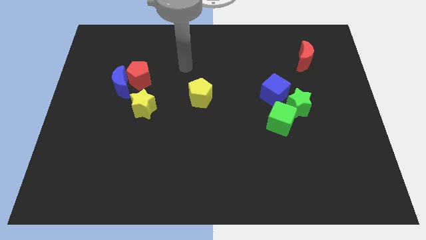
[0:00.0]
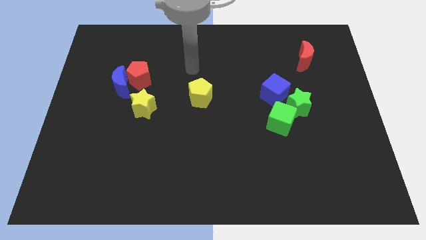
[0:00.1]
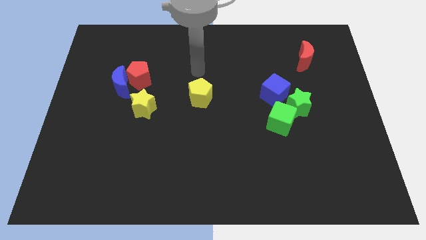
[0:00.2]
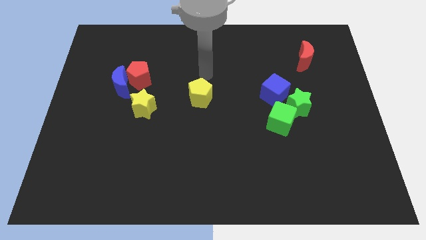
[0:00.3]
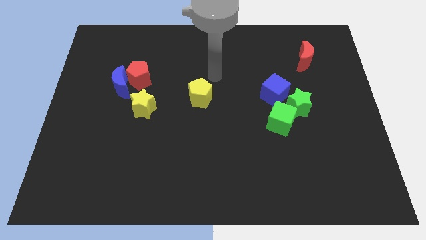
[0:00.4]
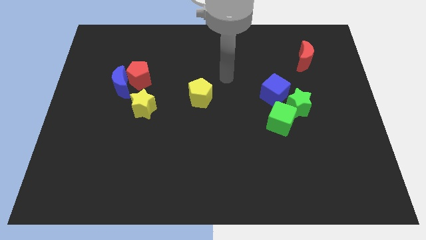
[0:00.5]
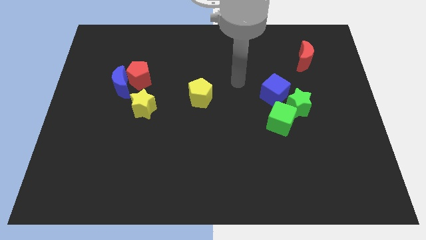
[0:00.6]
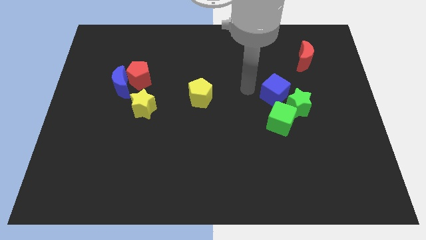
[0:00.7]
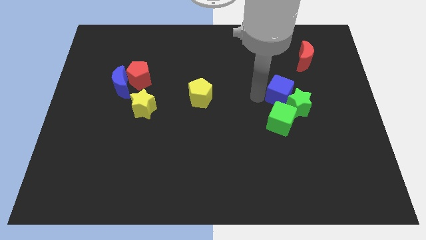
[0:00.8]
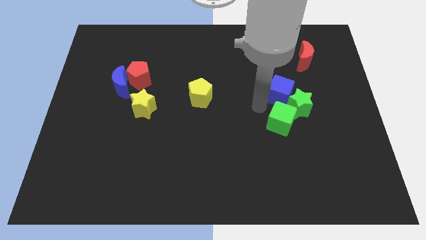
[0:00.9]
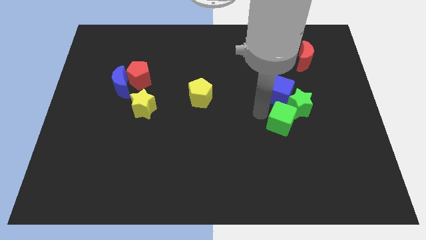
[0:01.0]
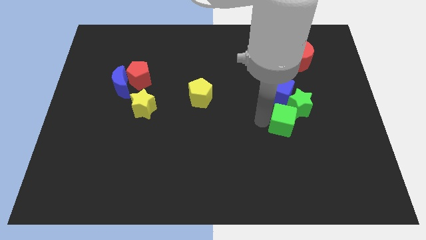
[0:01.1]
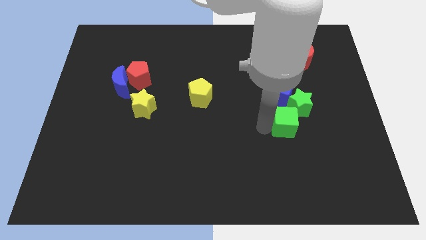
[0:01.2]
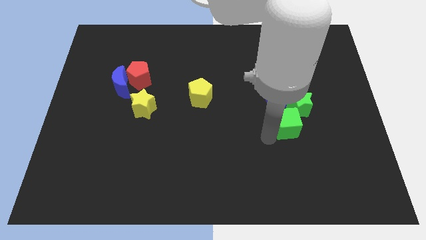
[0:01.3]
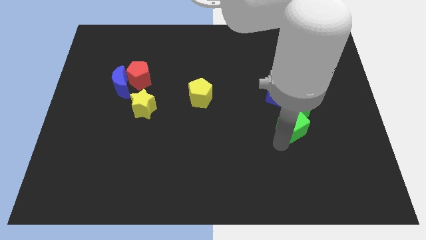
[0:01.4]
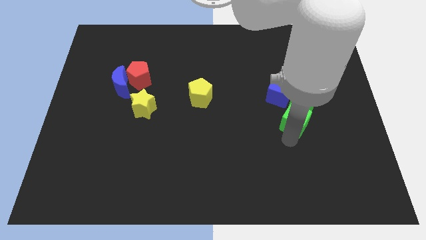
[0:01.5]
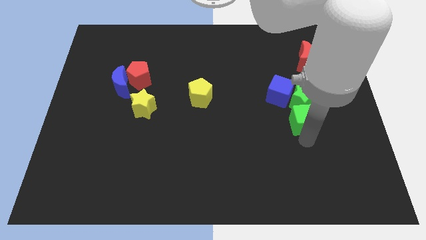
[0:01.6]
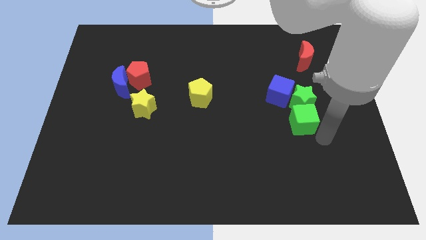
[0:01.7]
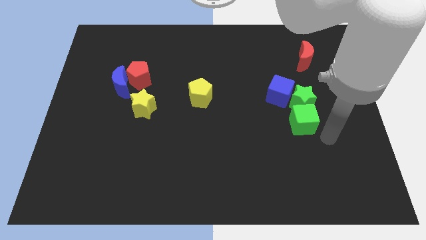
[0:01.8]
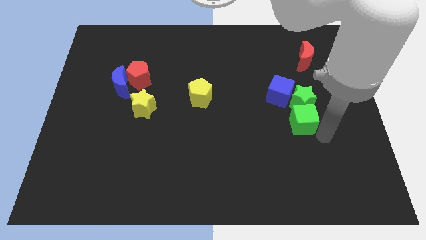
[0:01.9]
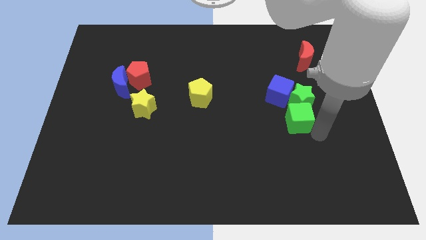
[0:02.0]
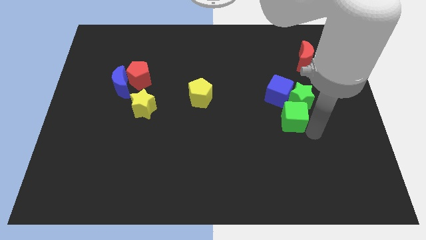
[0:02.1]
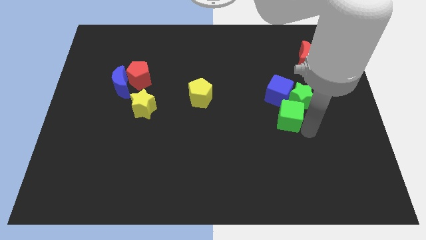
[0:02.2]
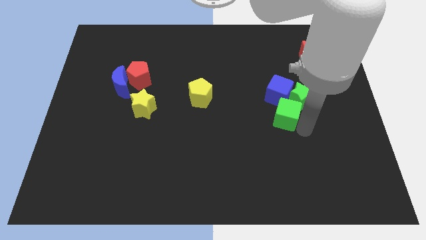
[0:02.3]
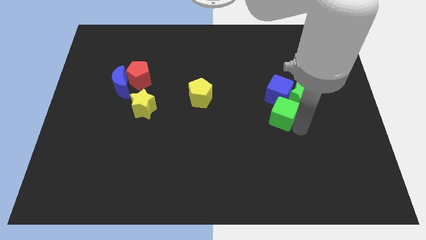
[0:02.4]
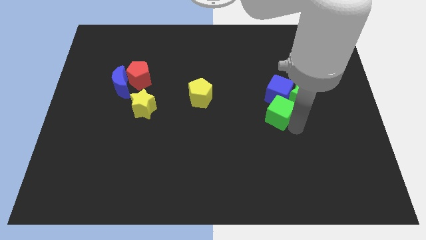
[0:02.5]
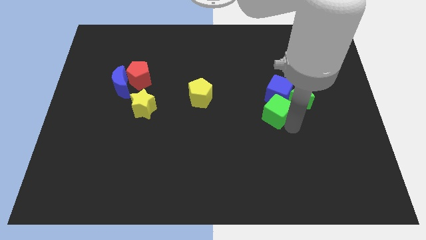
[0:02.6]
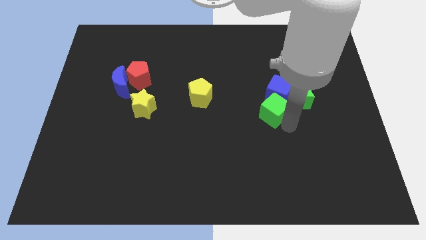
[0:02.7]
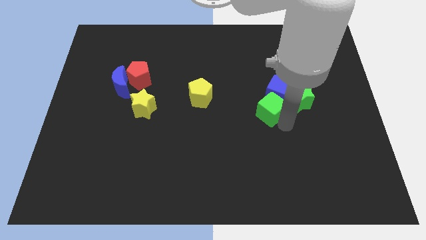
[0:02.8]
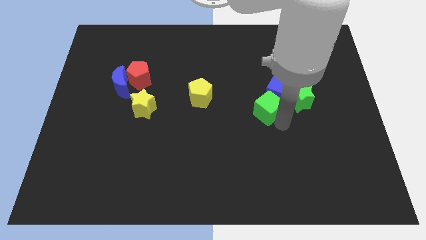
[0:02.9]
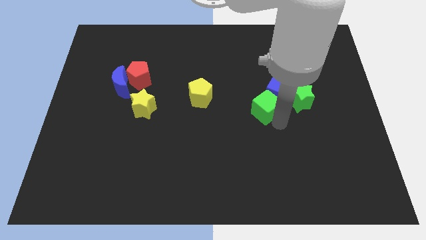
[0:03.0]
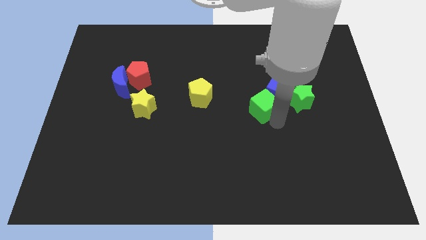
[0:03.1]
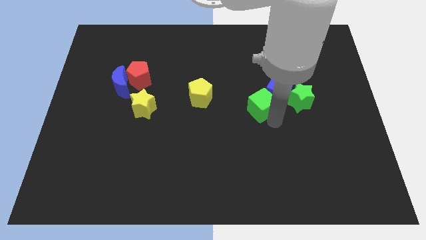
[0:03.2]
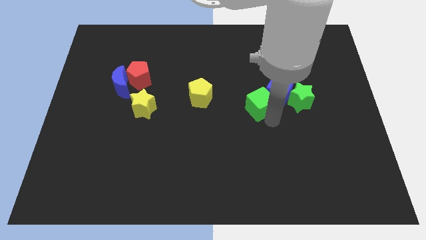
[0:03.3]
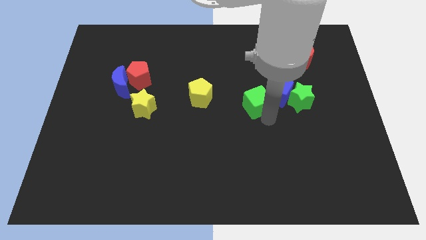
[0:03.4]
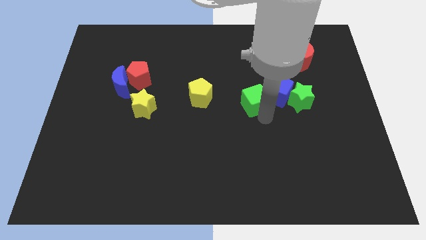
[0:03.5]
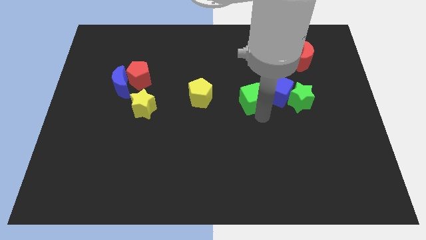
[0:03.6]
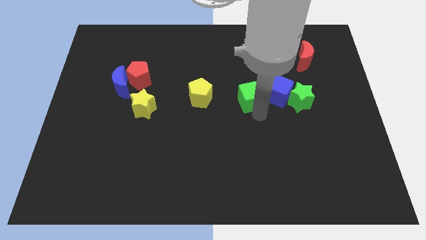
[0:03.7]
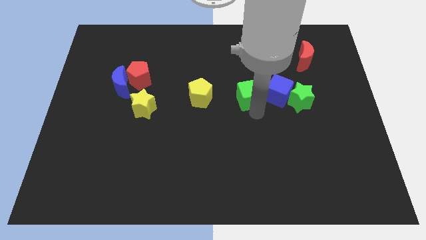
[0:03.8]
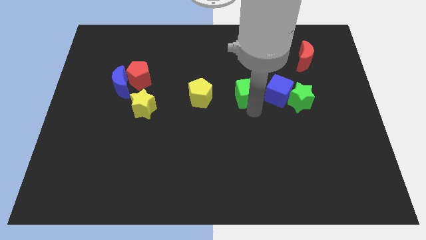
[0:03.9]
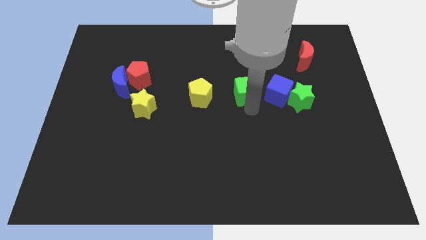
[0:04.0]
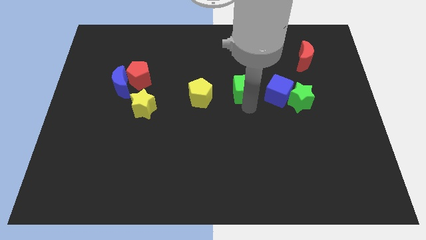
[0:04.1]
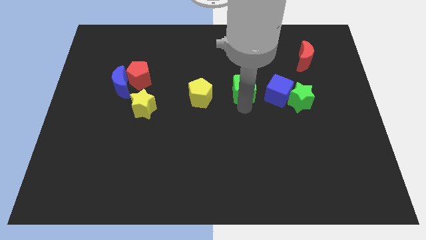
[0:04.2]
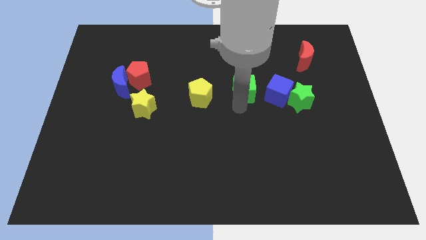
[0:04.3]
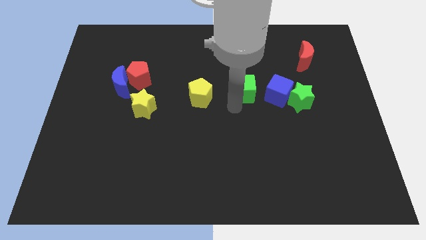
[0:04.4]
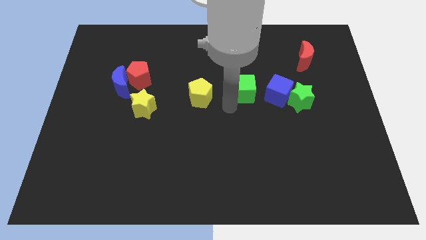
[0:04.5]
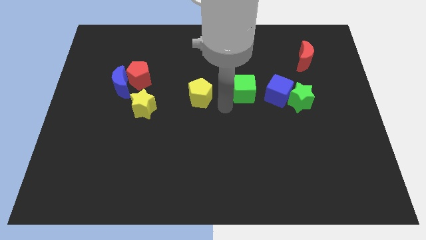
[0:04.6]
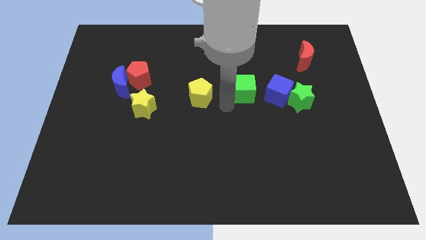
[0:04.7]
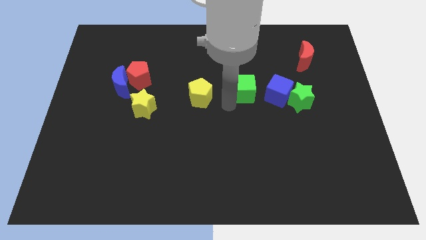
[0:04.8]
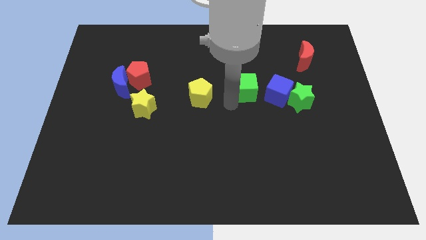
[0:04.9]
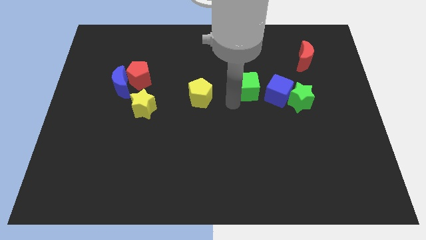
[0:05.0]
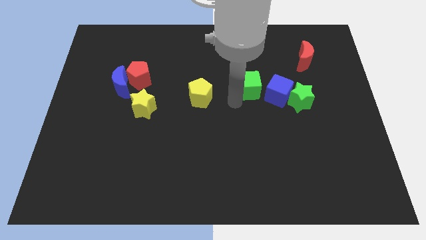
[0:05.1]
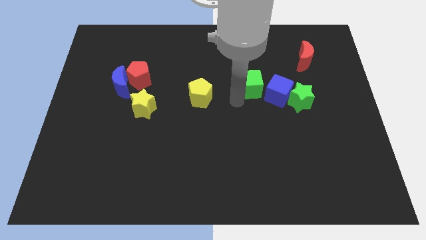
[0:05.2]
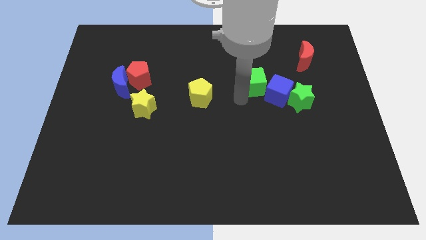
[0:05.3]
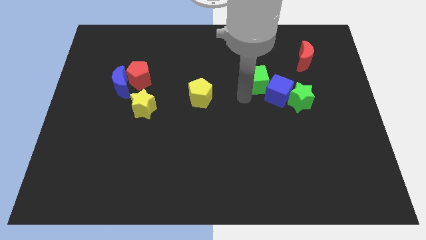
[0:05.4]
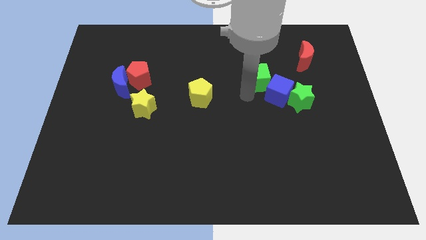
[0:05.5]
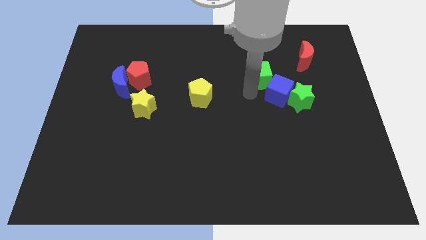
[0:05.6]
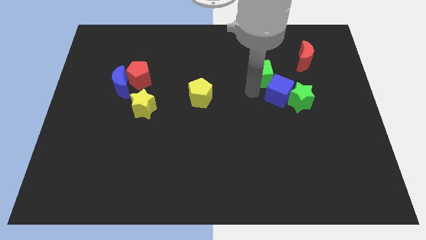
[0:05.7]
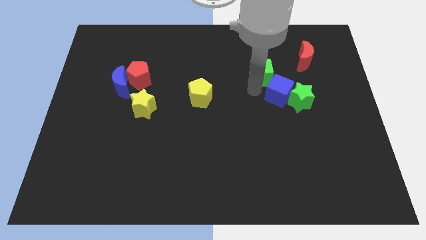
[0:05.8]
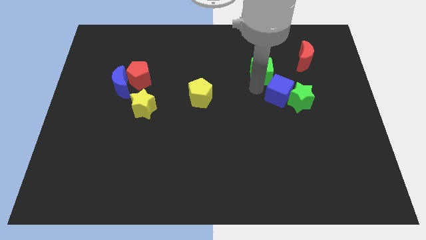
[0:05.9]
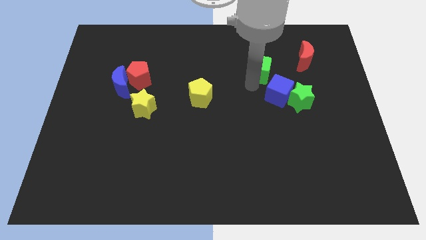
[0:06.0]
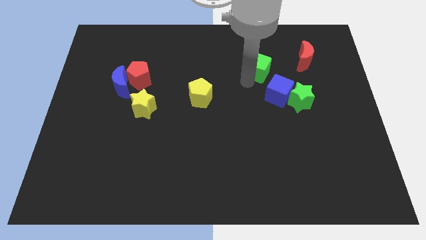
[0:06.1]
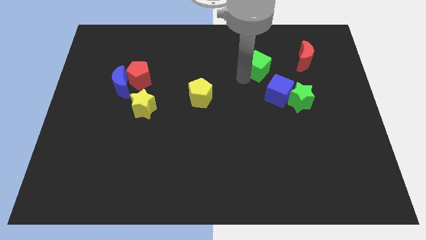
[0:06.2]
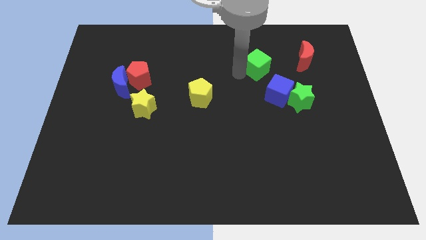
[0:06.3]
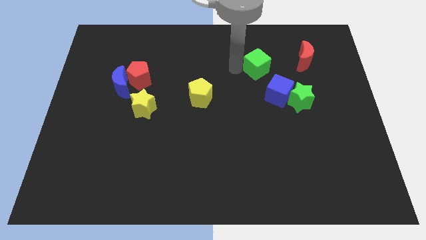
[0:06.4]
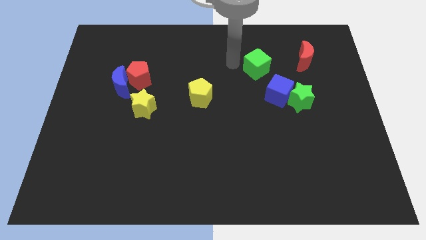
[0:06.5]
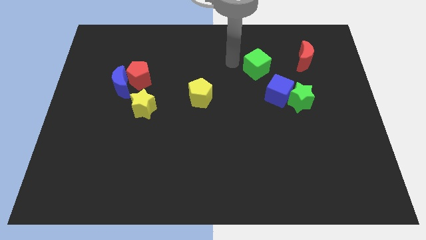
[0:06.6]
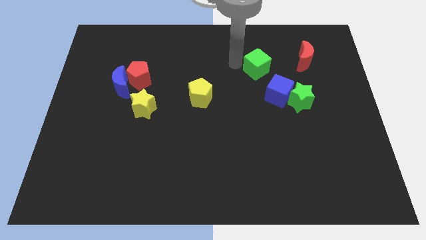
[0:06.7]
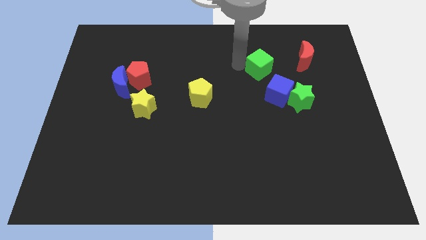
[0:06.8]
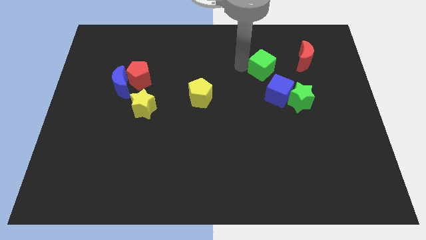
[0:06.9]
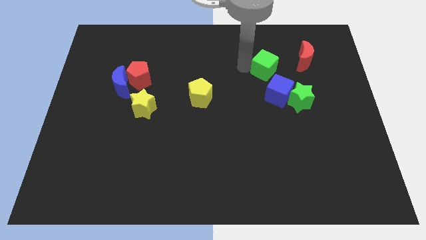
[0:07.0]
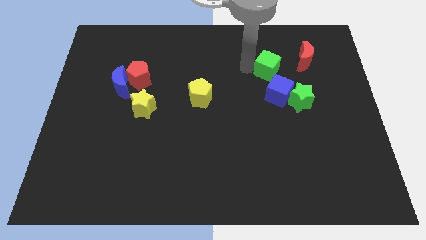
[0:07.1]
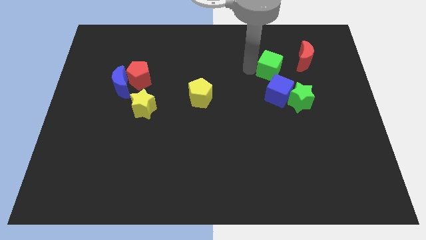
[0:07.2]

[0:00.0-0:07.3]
push the green cube to the bottom left side of the red moon

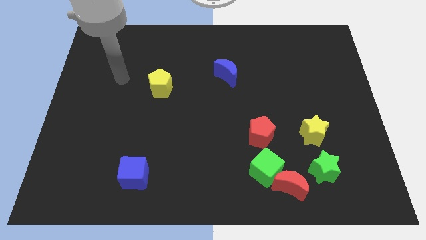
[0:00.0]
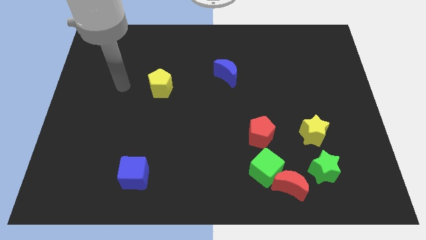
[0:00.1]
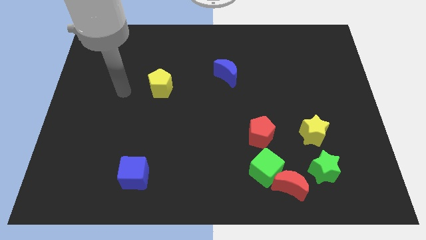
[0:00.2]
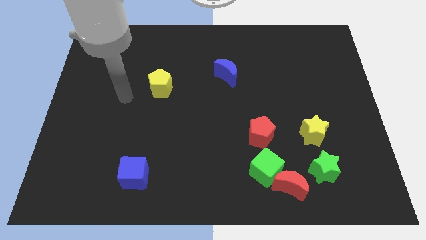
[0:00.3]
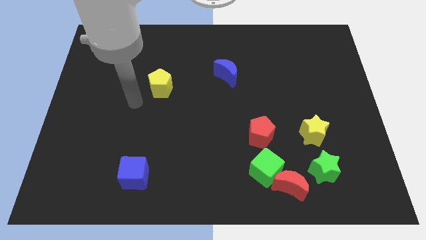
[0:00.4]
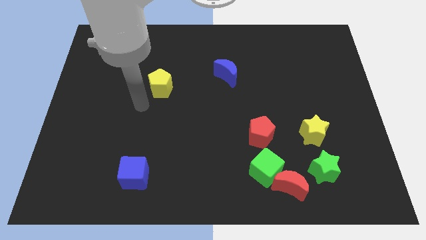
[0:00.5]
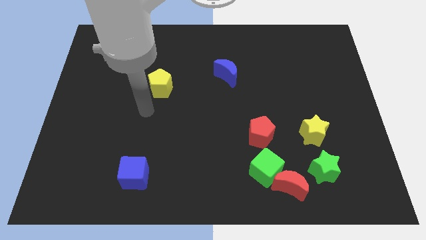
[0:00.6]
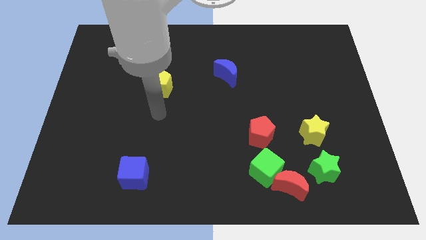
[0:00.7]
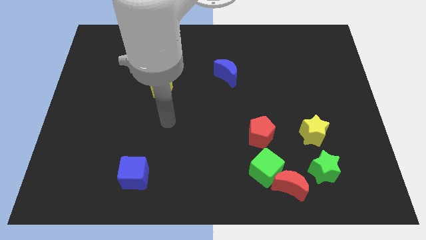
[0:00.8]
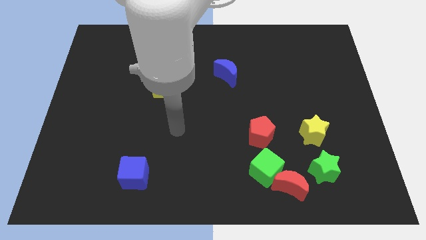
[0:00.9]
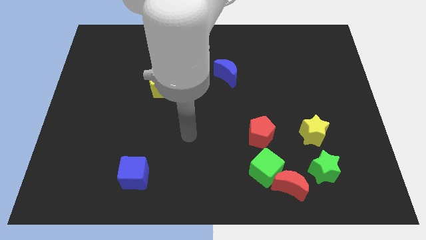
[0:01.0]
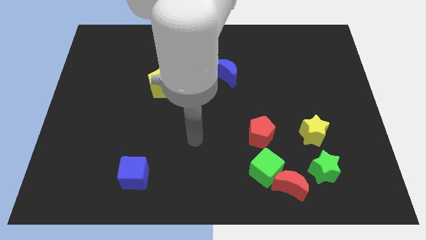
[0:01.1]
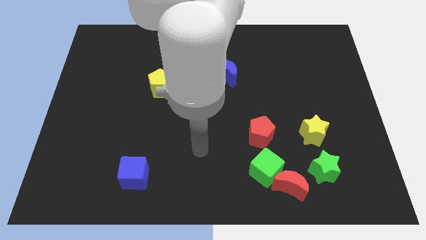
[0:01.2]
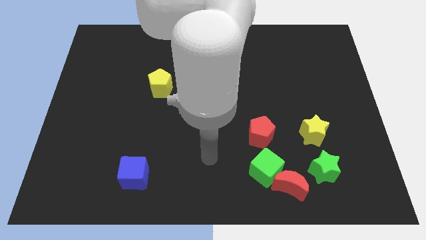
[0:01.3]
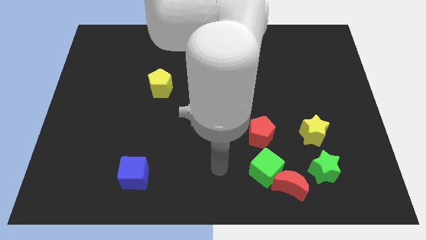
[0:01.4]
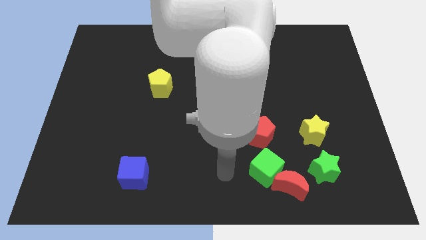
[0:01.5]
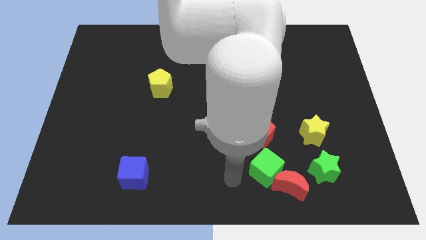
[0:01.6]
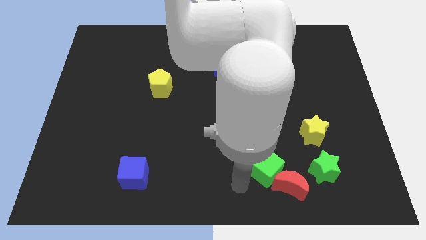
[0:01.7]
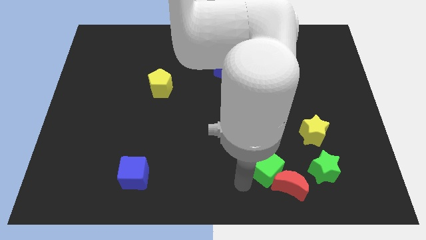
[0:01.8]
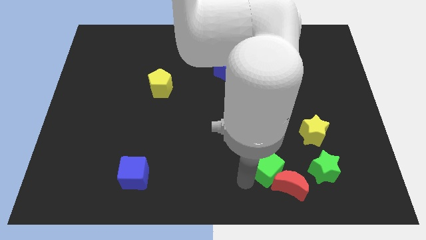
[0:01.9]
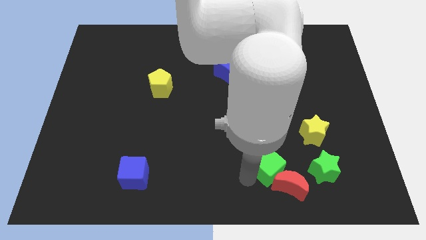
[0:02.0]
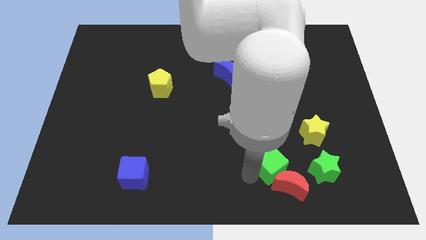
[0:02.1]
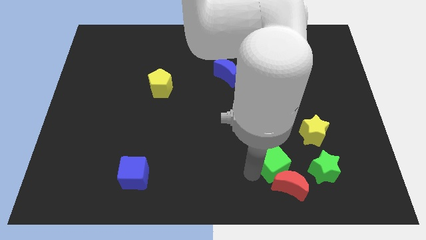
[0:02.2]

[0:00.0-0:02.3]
put the green cube diagonally down and to the left of the yellow star
